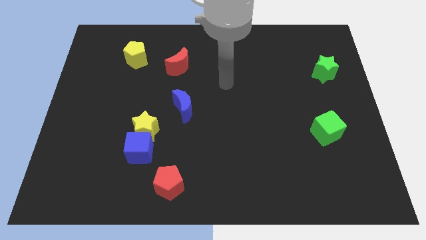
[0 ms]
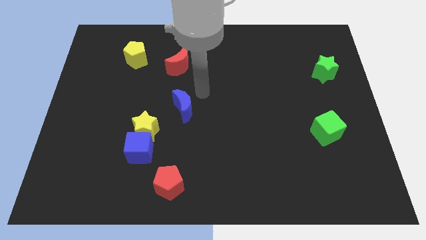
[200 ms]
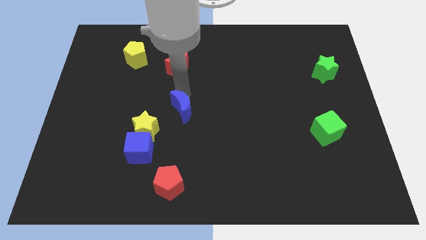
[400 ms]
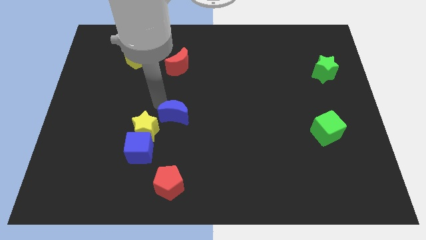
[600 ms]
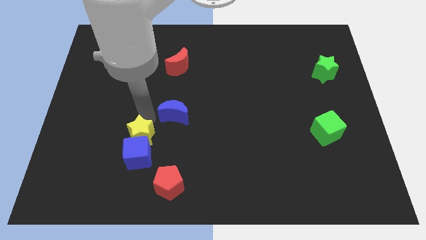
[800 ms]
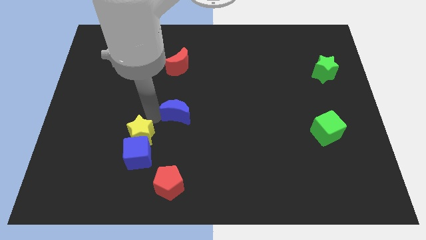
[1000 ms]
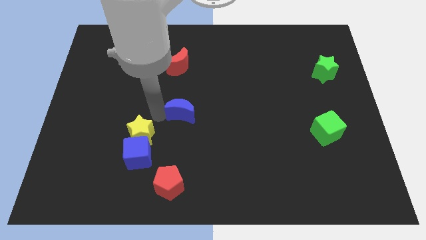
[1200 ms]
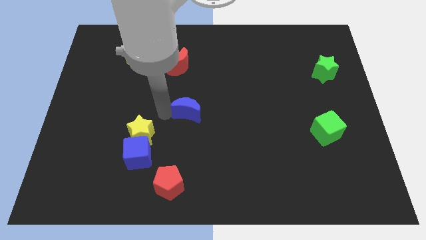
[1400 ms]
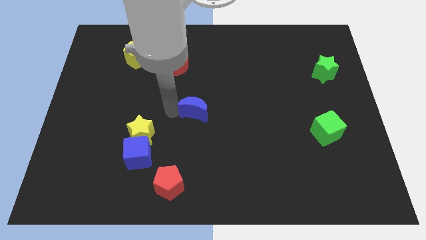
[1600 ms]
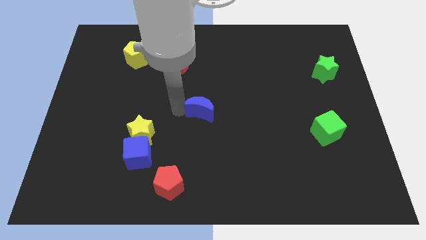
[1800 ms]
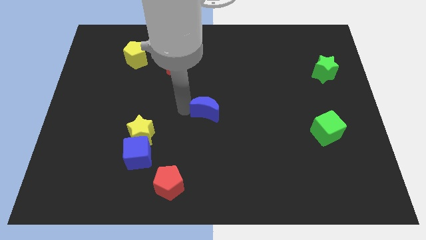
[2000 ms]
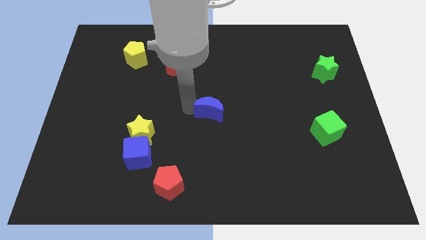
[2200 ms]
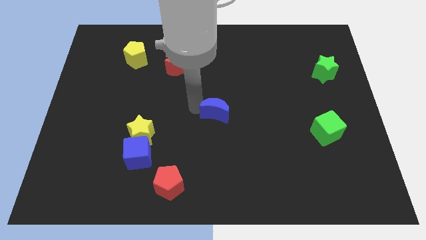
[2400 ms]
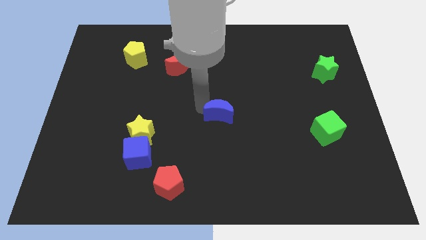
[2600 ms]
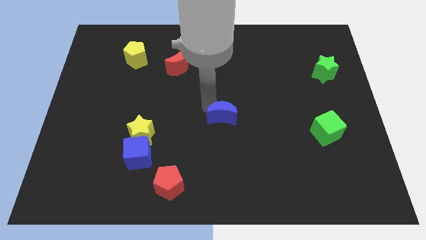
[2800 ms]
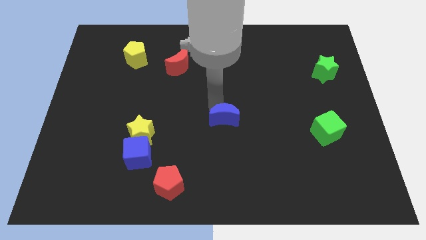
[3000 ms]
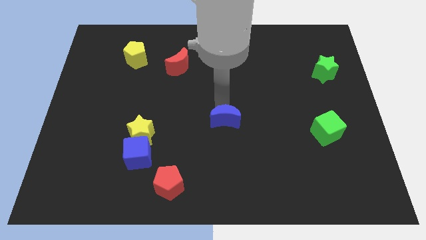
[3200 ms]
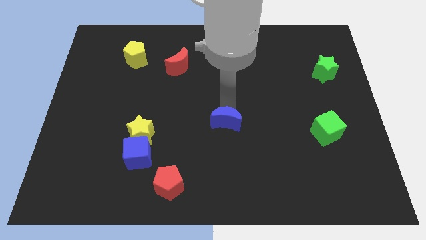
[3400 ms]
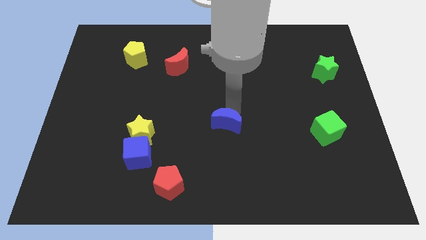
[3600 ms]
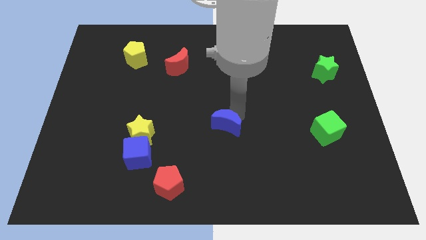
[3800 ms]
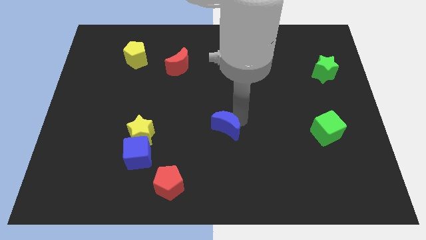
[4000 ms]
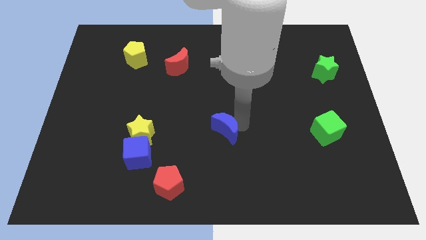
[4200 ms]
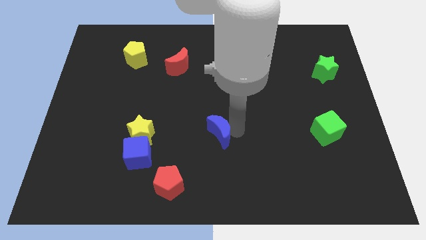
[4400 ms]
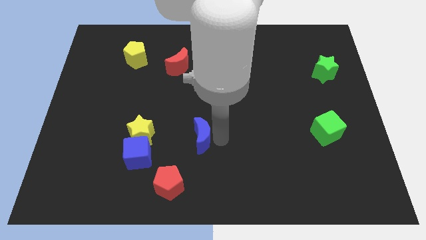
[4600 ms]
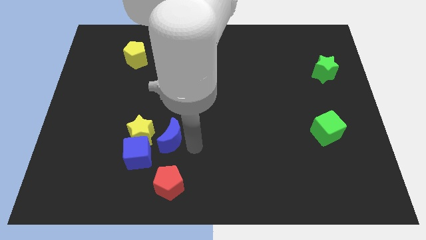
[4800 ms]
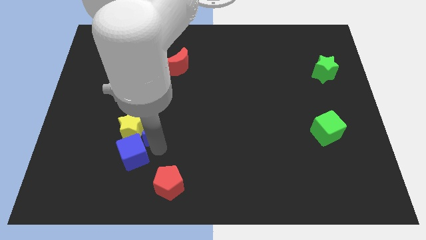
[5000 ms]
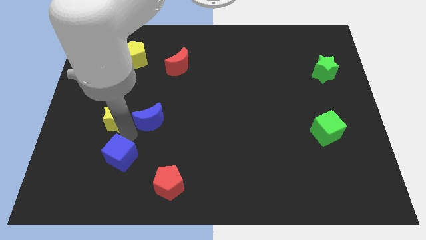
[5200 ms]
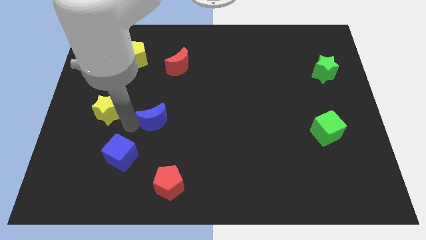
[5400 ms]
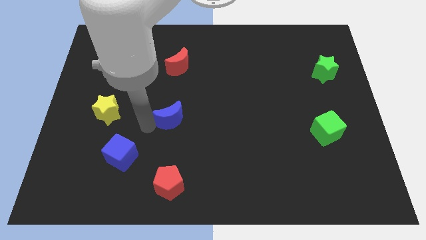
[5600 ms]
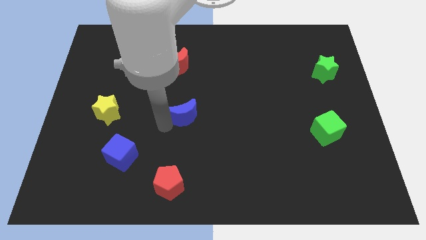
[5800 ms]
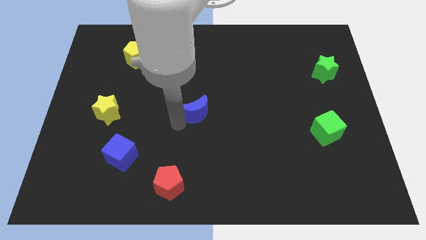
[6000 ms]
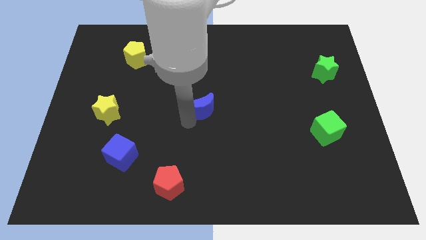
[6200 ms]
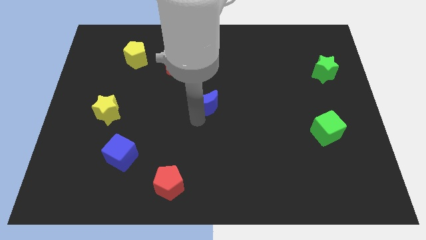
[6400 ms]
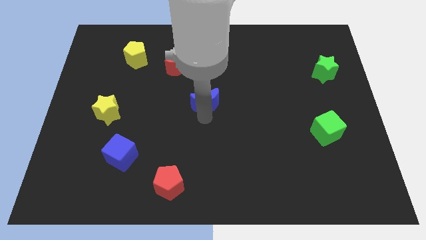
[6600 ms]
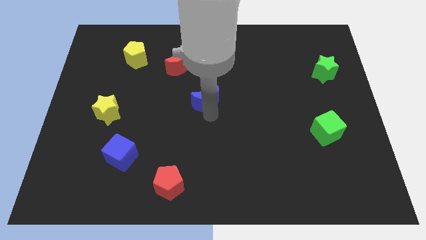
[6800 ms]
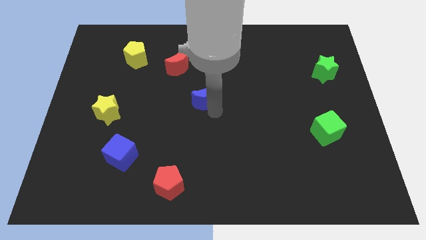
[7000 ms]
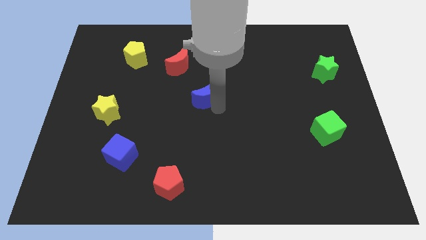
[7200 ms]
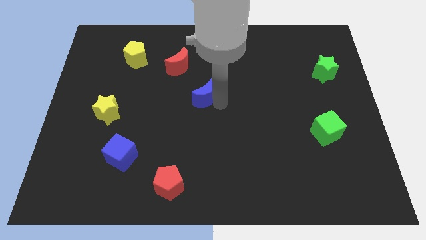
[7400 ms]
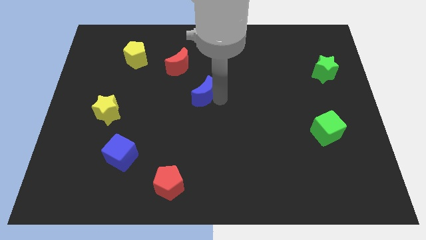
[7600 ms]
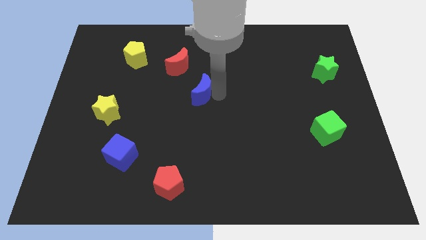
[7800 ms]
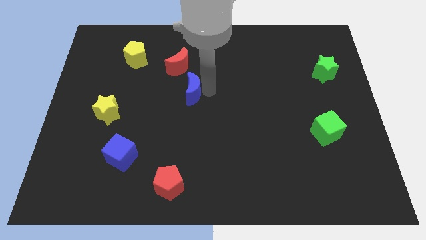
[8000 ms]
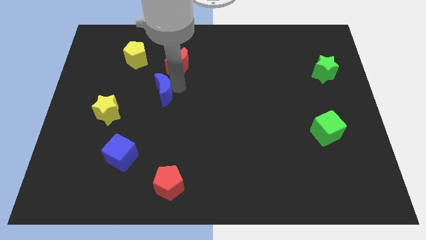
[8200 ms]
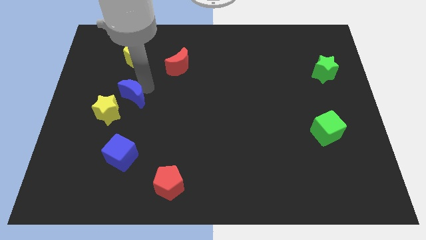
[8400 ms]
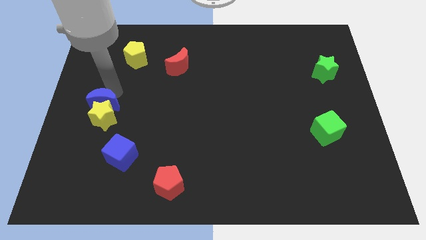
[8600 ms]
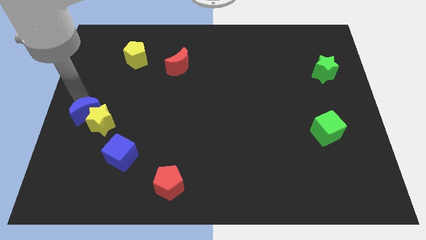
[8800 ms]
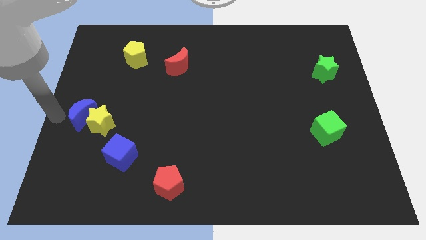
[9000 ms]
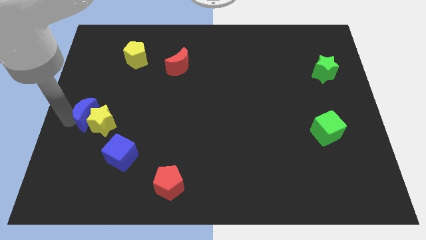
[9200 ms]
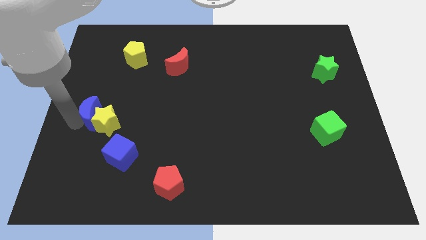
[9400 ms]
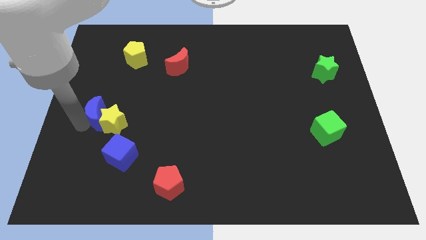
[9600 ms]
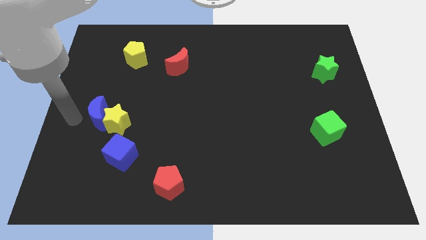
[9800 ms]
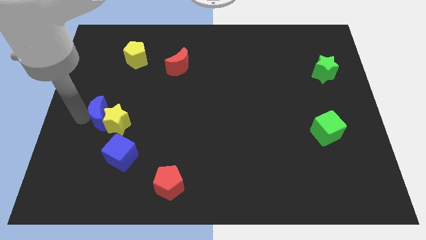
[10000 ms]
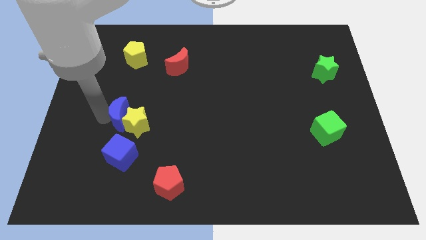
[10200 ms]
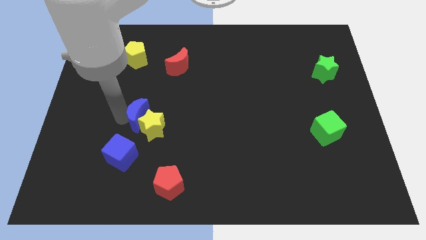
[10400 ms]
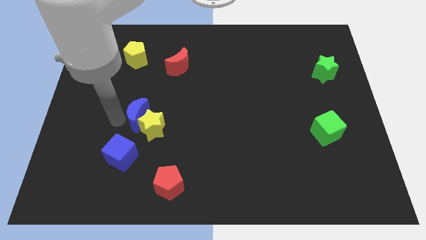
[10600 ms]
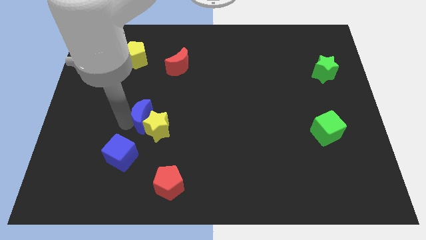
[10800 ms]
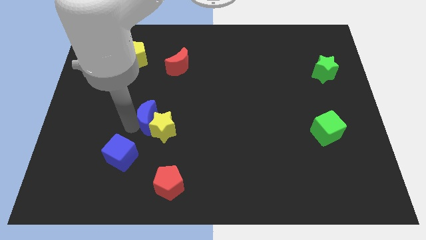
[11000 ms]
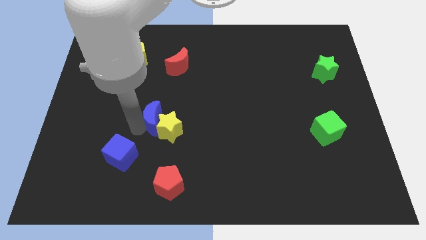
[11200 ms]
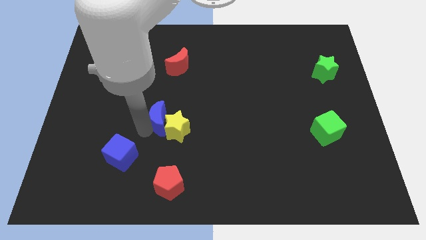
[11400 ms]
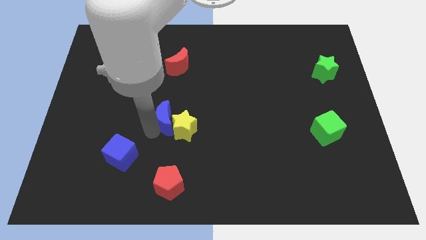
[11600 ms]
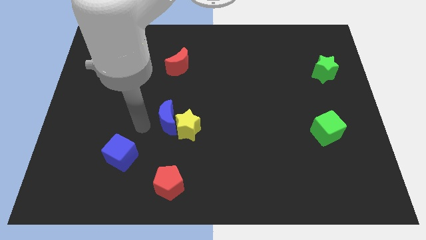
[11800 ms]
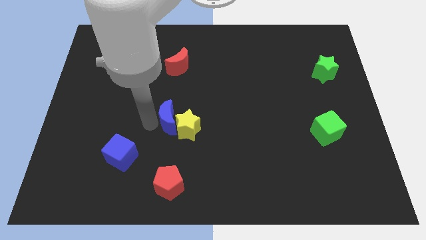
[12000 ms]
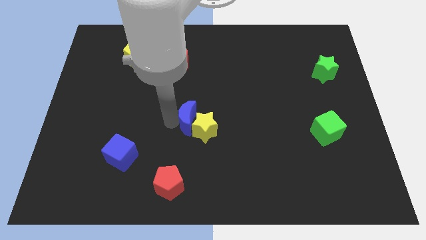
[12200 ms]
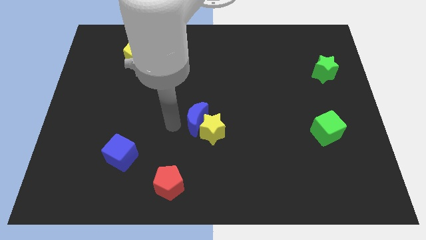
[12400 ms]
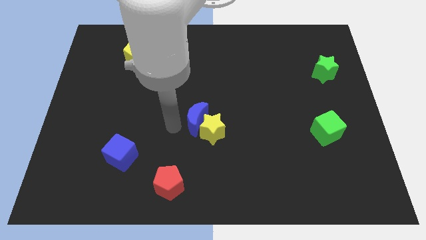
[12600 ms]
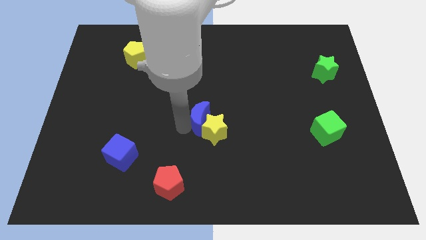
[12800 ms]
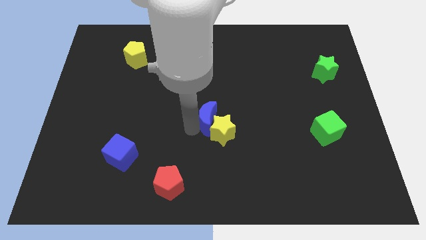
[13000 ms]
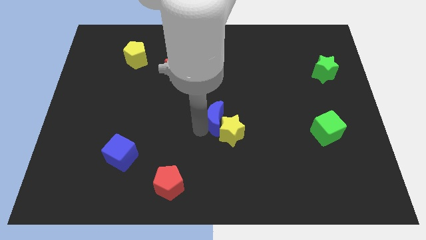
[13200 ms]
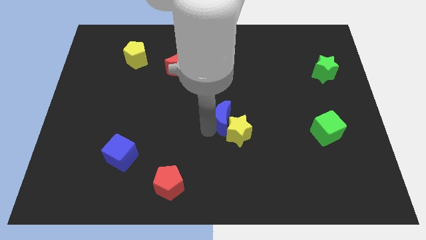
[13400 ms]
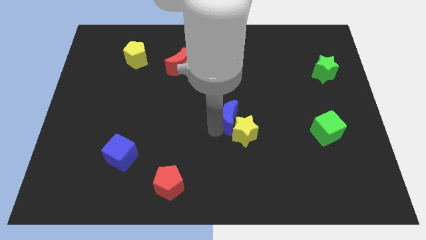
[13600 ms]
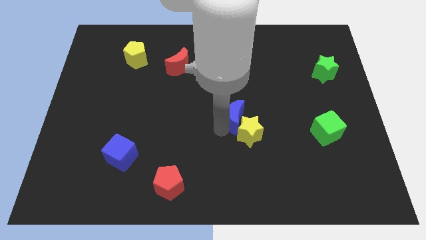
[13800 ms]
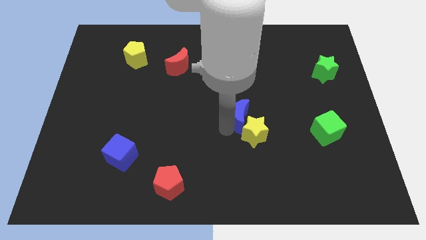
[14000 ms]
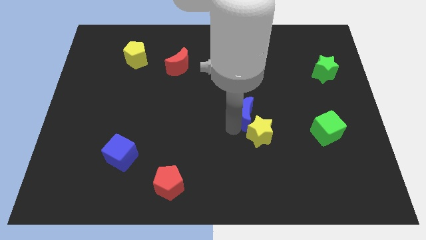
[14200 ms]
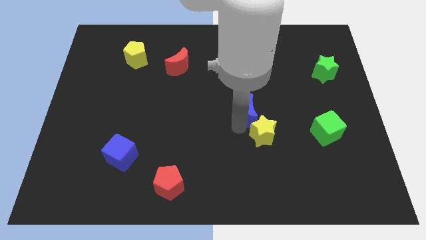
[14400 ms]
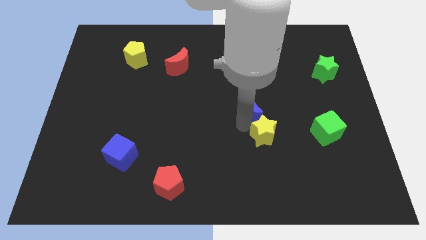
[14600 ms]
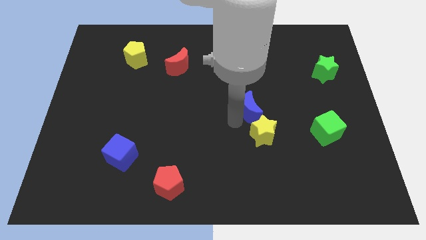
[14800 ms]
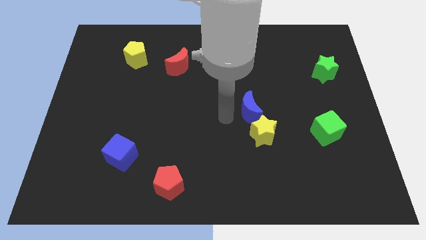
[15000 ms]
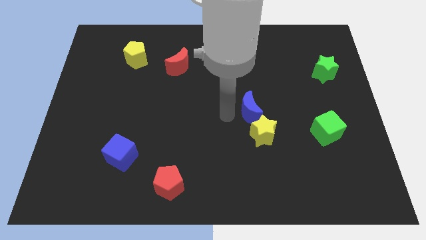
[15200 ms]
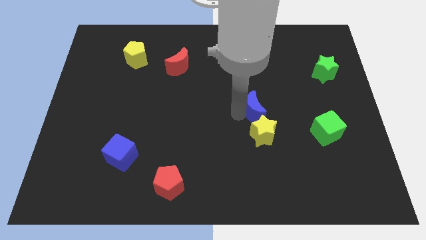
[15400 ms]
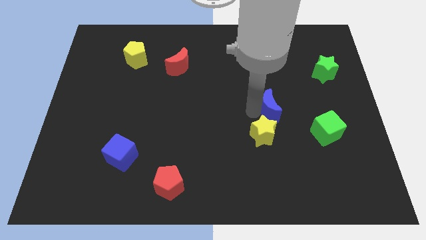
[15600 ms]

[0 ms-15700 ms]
slide the blue moon to the right
